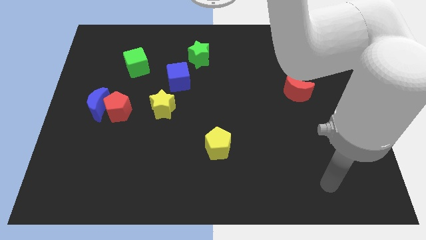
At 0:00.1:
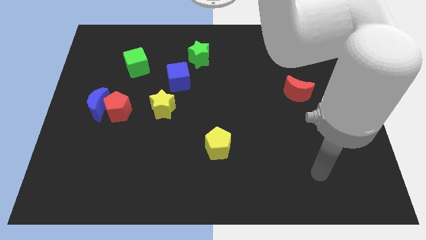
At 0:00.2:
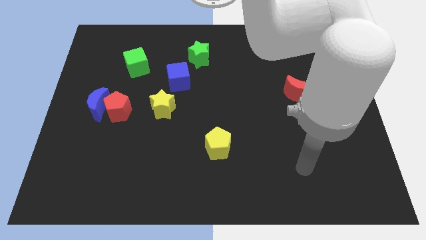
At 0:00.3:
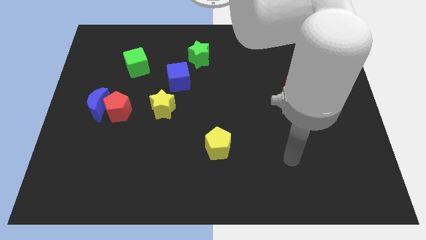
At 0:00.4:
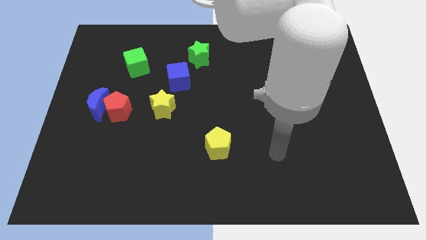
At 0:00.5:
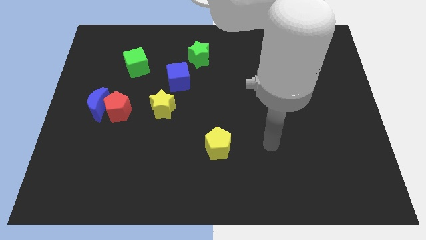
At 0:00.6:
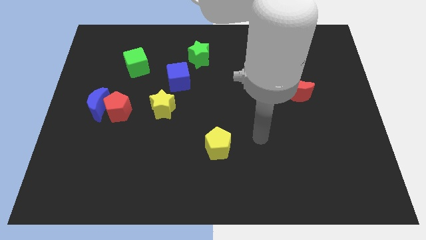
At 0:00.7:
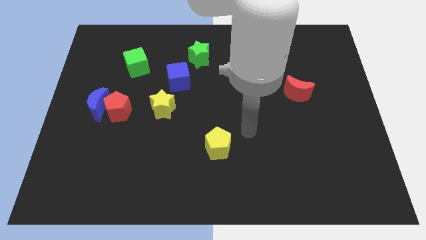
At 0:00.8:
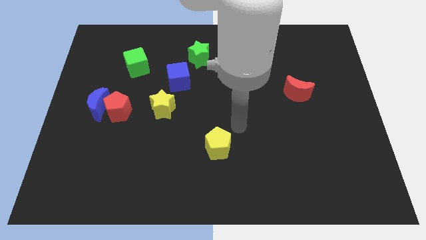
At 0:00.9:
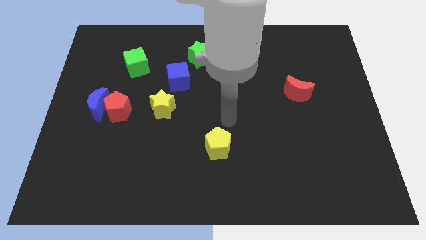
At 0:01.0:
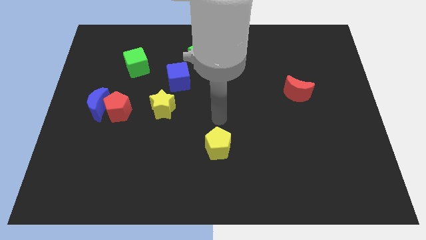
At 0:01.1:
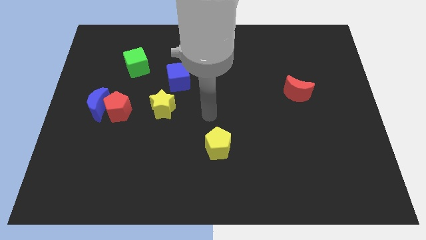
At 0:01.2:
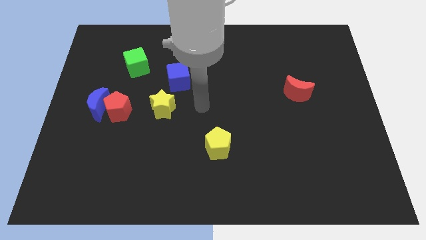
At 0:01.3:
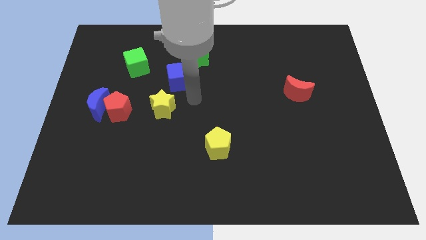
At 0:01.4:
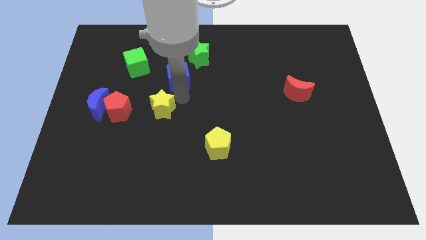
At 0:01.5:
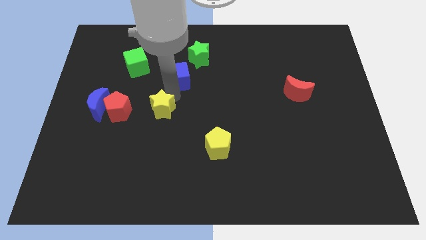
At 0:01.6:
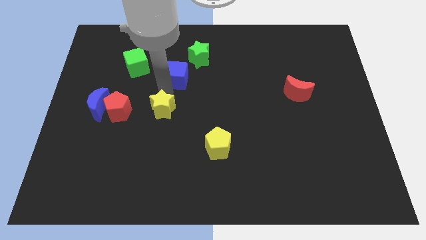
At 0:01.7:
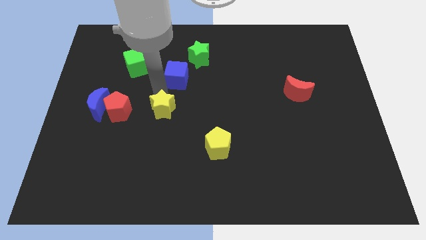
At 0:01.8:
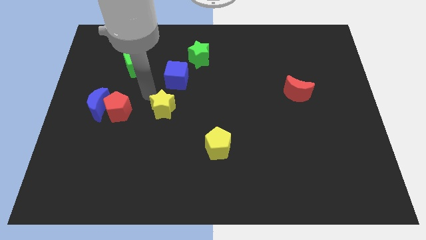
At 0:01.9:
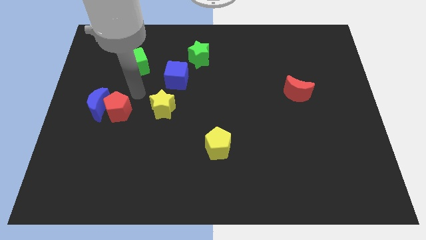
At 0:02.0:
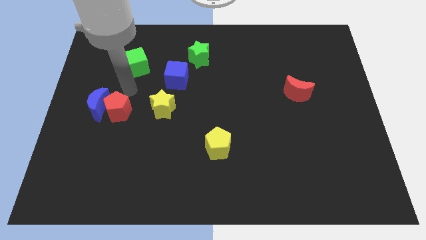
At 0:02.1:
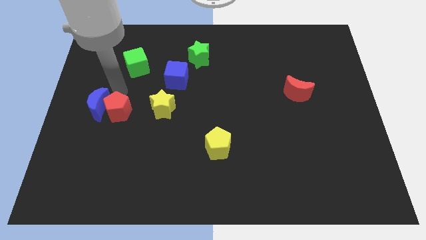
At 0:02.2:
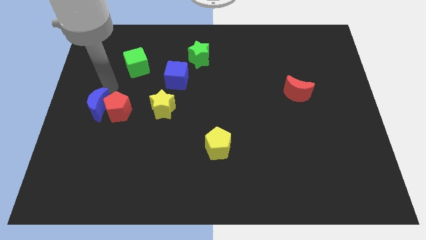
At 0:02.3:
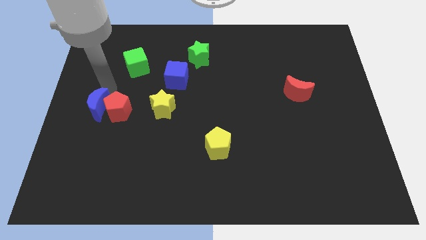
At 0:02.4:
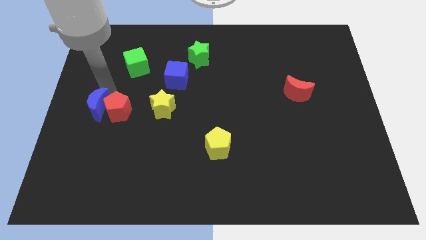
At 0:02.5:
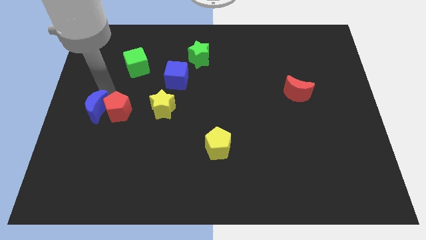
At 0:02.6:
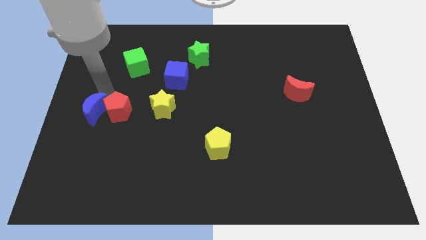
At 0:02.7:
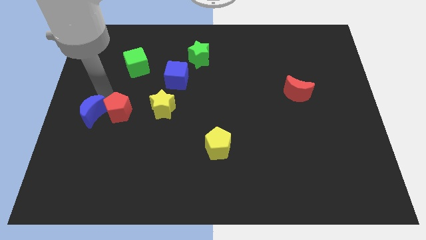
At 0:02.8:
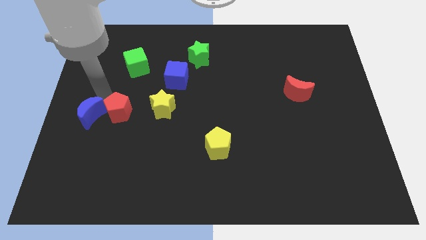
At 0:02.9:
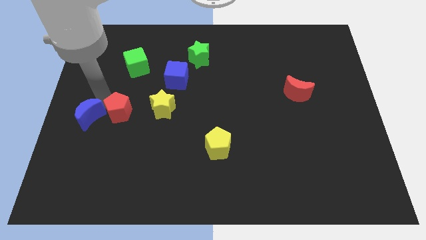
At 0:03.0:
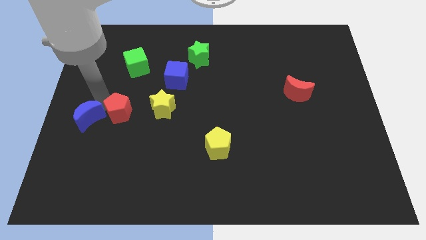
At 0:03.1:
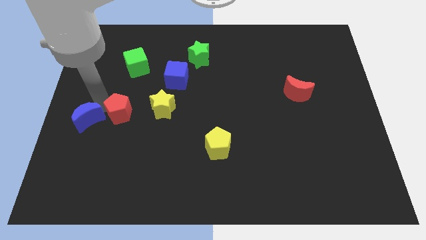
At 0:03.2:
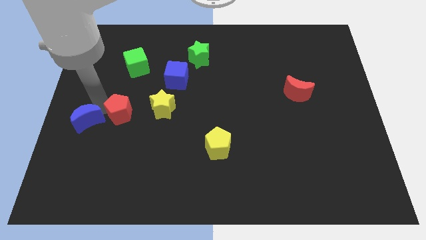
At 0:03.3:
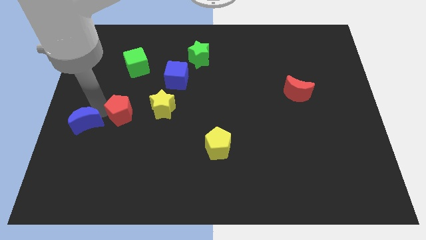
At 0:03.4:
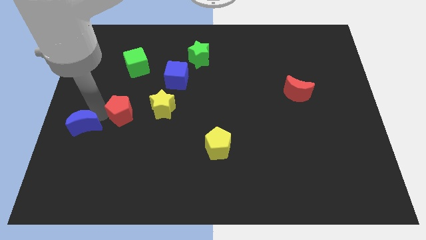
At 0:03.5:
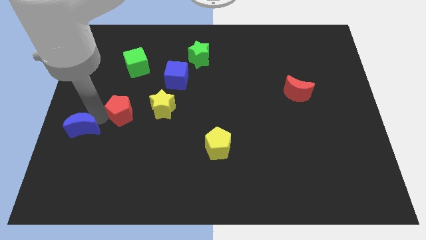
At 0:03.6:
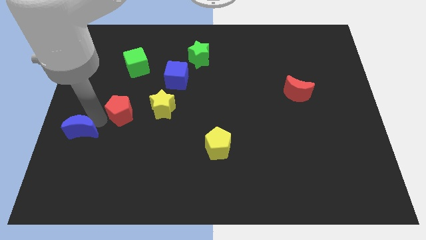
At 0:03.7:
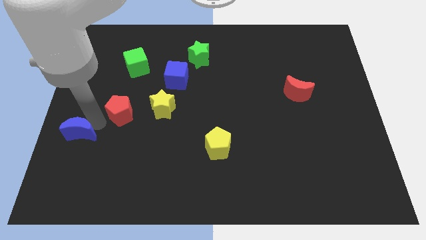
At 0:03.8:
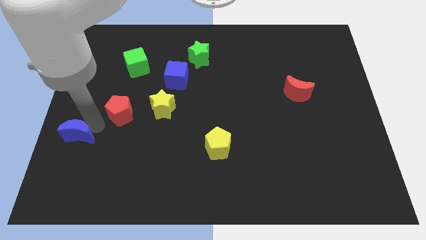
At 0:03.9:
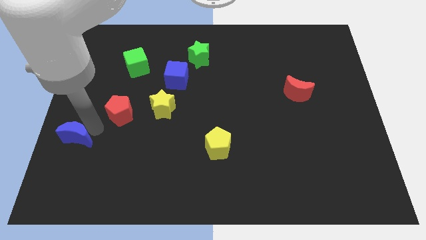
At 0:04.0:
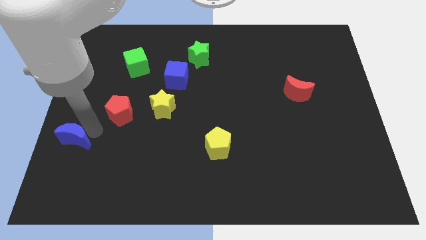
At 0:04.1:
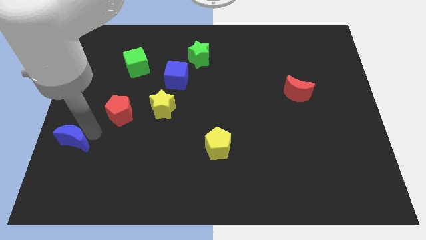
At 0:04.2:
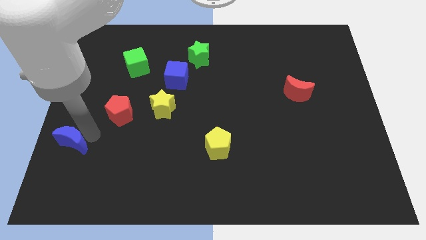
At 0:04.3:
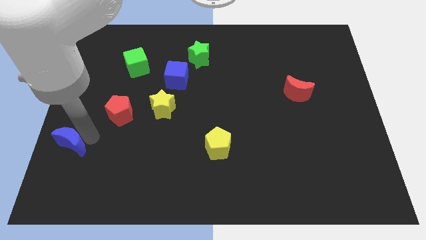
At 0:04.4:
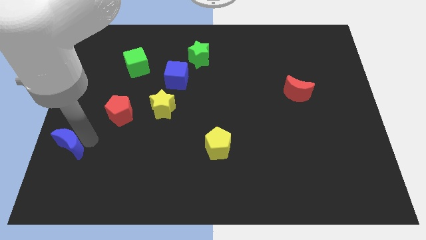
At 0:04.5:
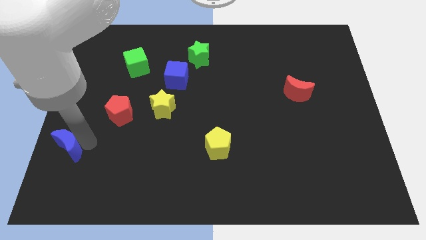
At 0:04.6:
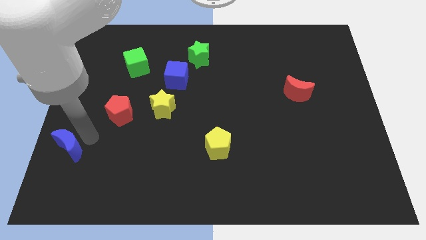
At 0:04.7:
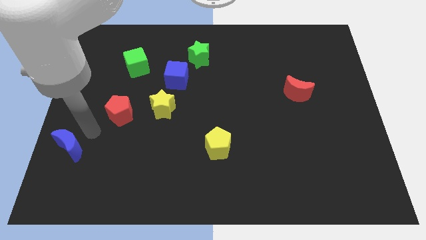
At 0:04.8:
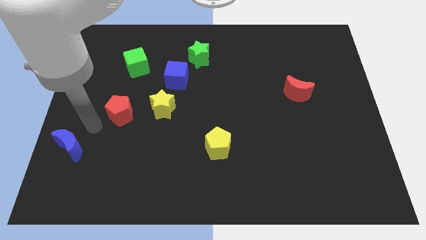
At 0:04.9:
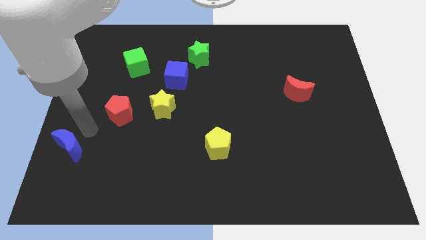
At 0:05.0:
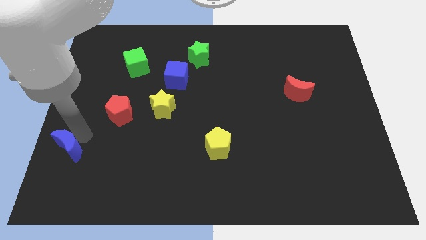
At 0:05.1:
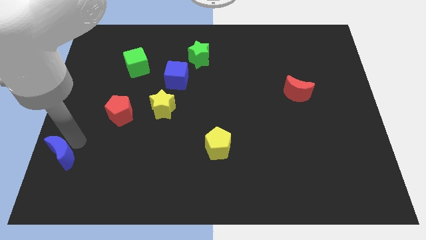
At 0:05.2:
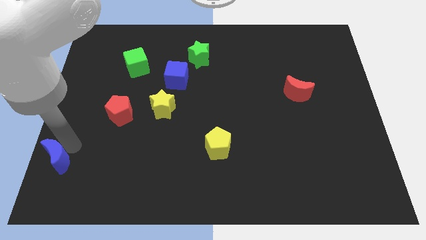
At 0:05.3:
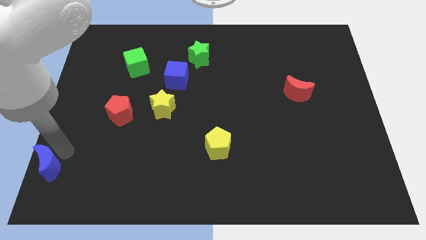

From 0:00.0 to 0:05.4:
put the blue moon to the lower left corner
